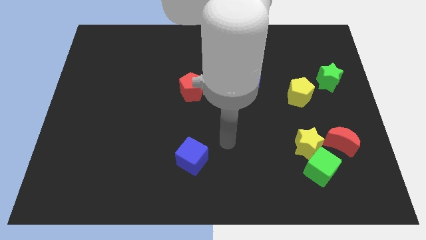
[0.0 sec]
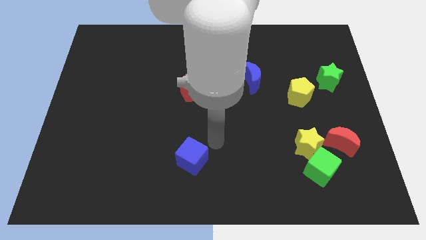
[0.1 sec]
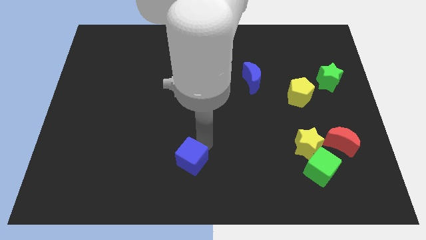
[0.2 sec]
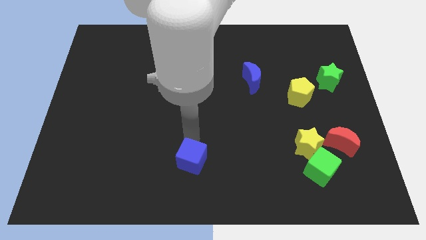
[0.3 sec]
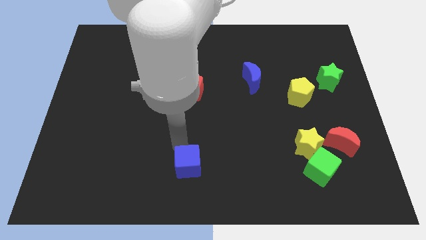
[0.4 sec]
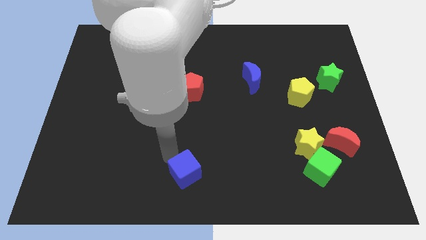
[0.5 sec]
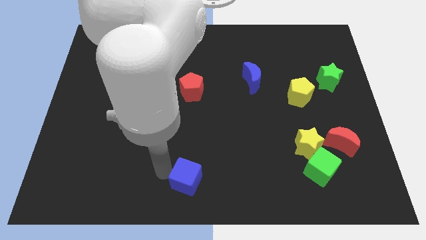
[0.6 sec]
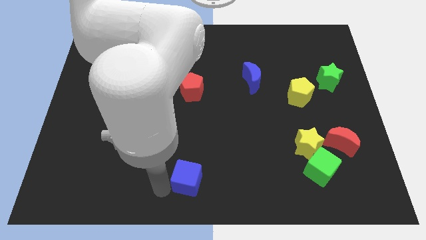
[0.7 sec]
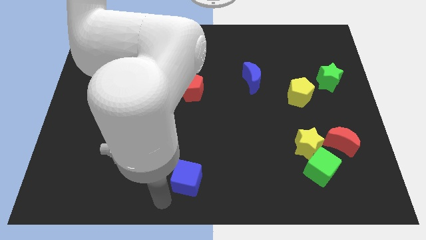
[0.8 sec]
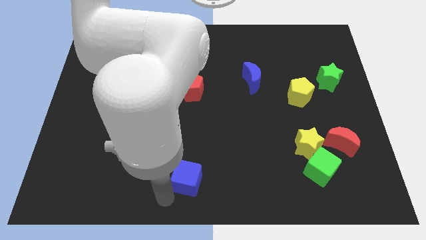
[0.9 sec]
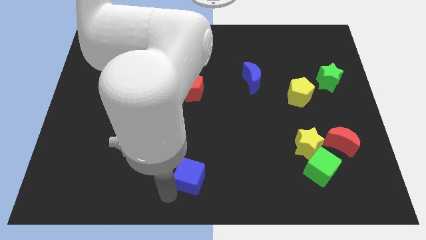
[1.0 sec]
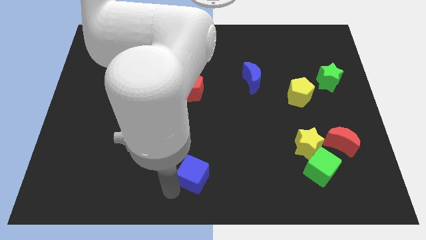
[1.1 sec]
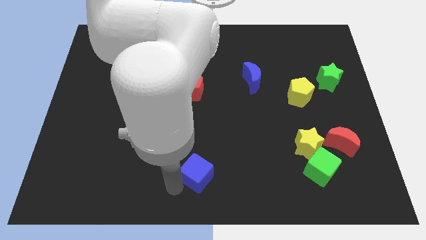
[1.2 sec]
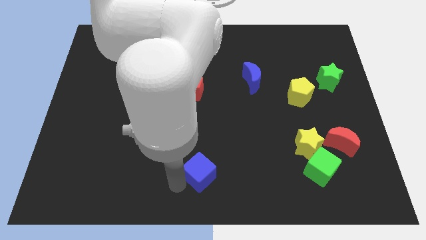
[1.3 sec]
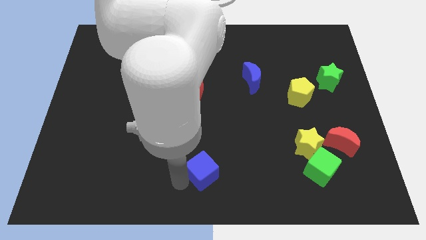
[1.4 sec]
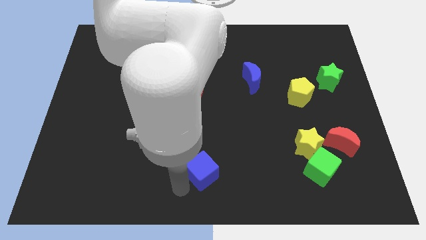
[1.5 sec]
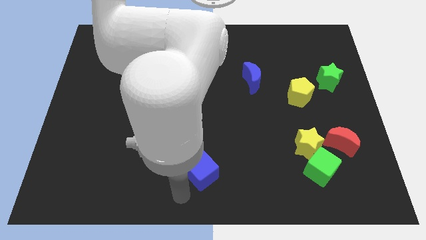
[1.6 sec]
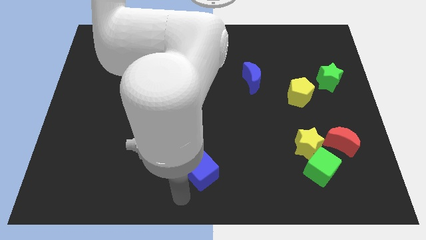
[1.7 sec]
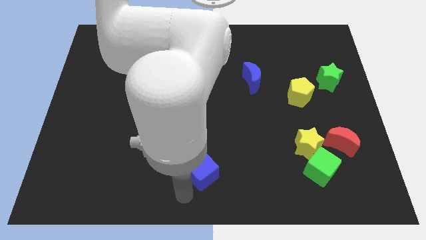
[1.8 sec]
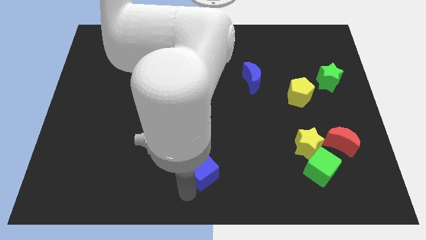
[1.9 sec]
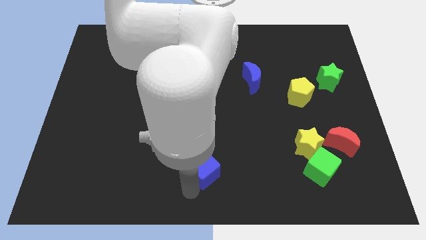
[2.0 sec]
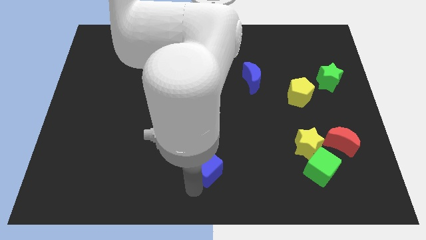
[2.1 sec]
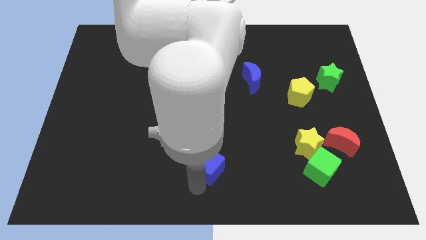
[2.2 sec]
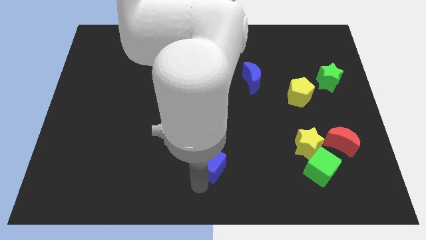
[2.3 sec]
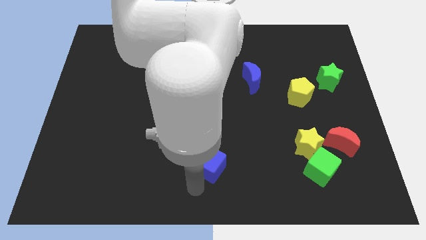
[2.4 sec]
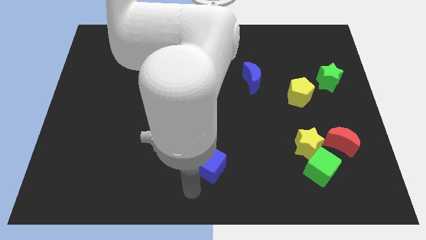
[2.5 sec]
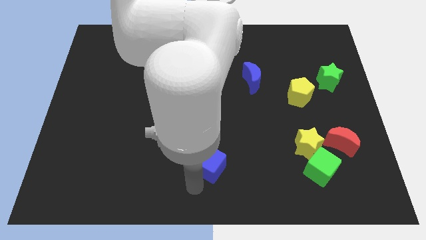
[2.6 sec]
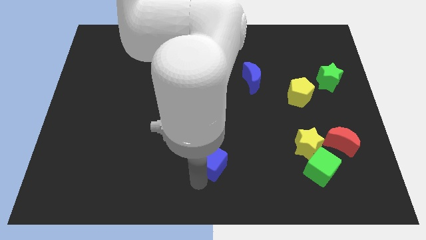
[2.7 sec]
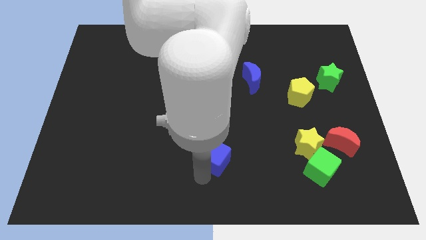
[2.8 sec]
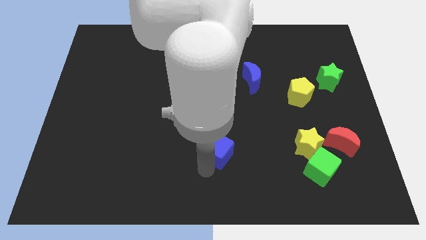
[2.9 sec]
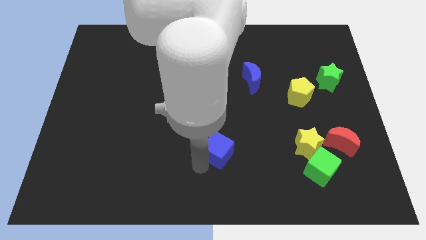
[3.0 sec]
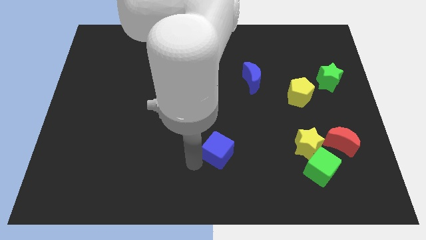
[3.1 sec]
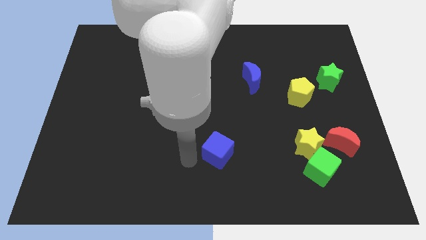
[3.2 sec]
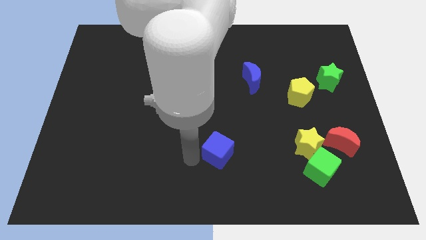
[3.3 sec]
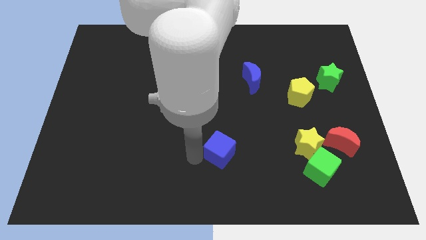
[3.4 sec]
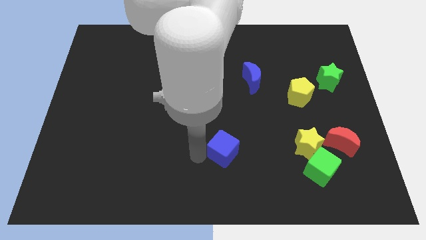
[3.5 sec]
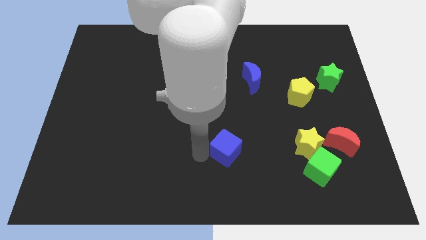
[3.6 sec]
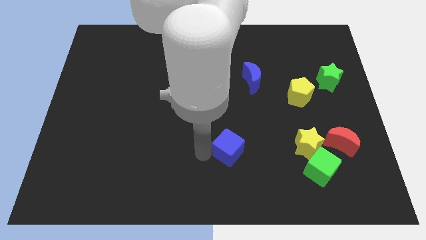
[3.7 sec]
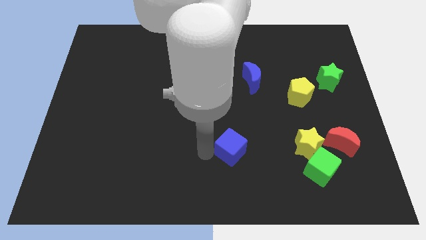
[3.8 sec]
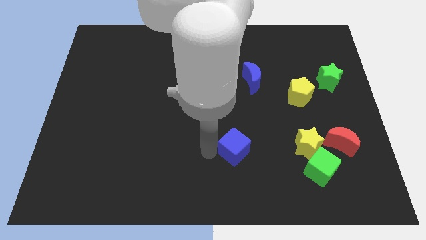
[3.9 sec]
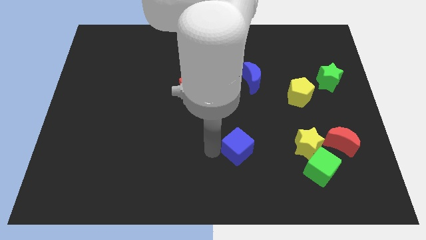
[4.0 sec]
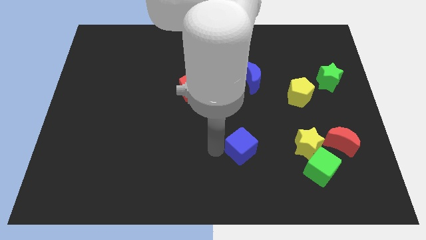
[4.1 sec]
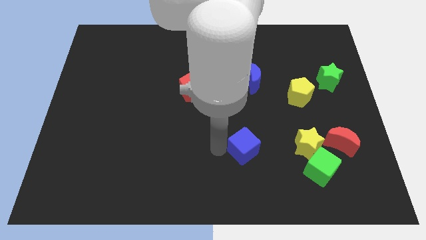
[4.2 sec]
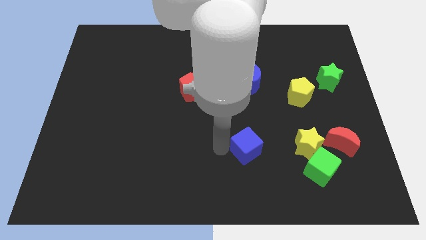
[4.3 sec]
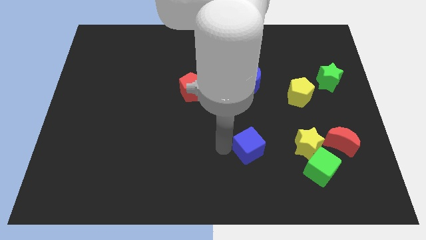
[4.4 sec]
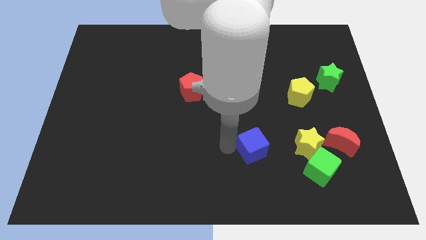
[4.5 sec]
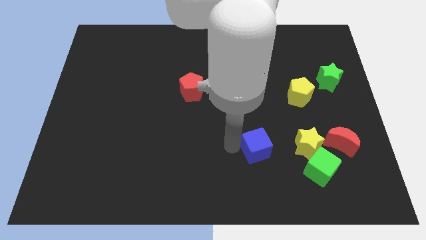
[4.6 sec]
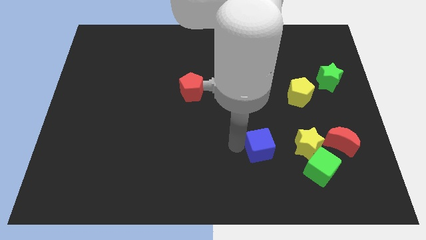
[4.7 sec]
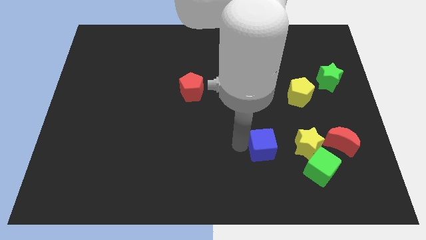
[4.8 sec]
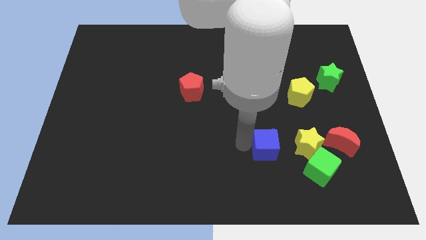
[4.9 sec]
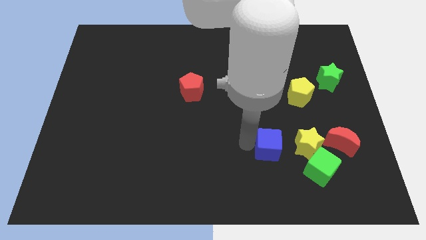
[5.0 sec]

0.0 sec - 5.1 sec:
push the blue cube to the top left of the green cube

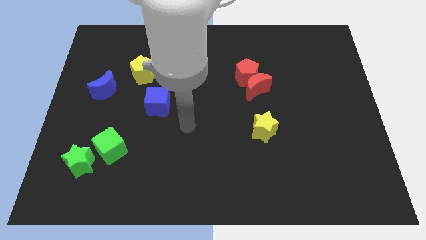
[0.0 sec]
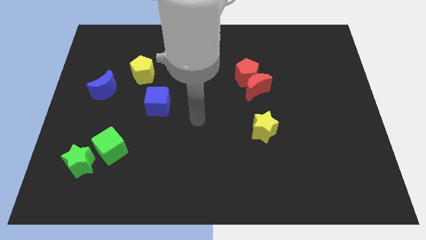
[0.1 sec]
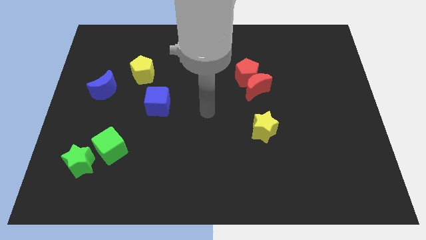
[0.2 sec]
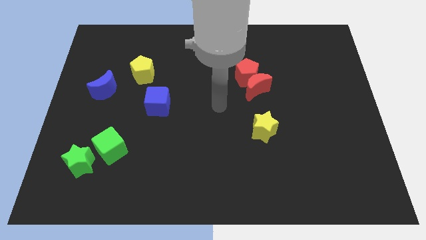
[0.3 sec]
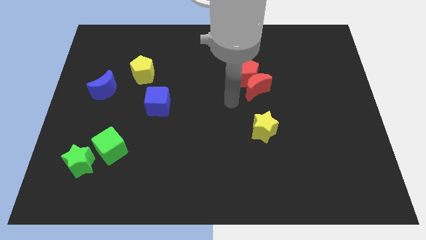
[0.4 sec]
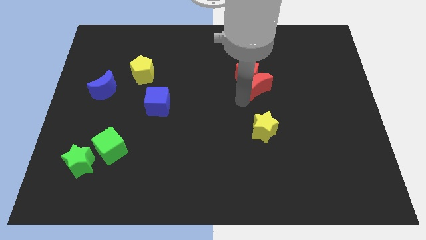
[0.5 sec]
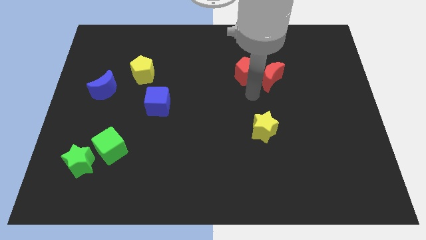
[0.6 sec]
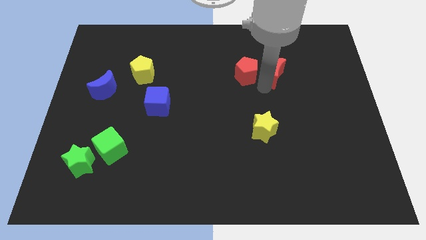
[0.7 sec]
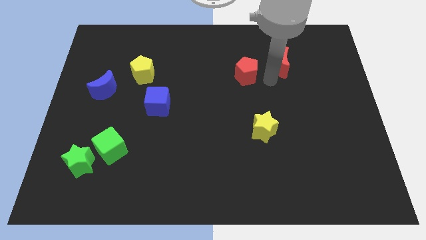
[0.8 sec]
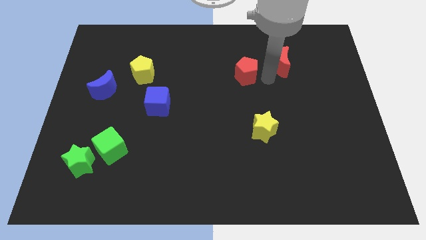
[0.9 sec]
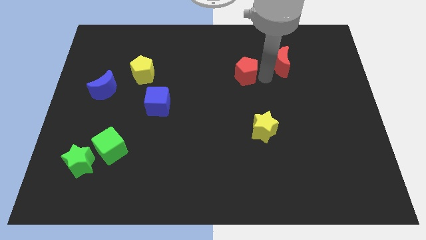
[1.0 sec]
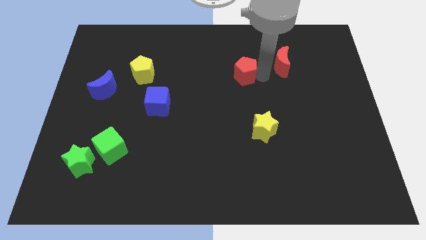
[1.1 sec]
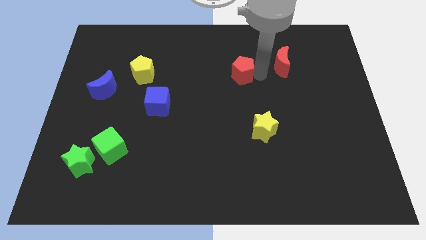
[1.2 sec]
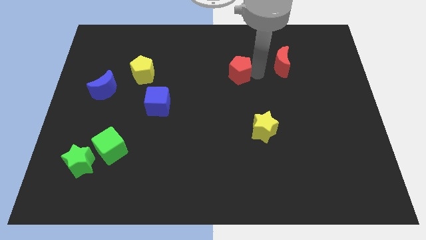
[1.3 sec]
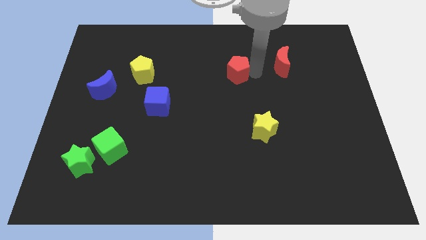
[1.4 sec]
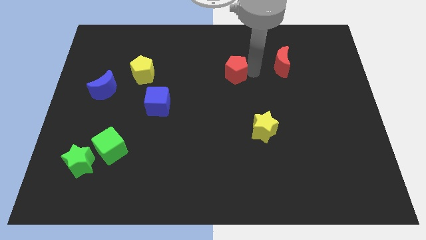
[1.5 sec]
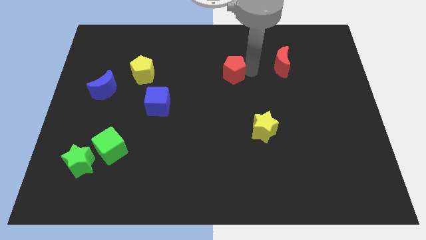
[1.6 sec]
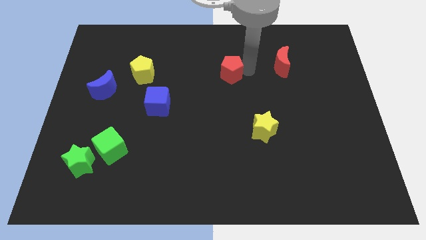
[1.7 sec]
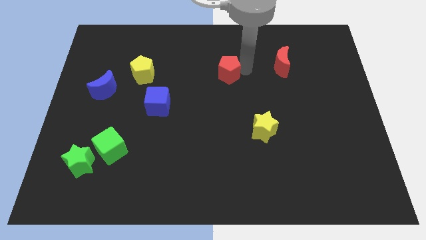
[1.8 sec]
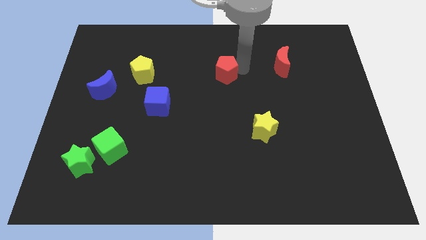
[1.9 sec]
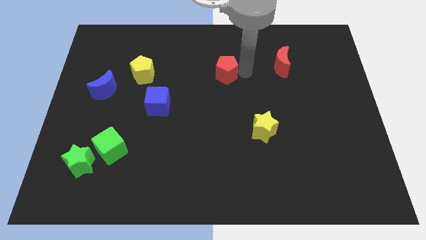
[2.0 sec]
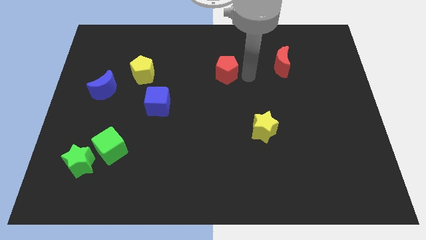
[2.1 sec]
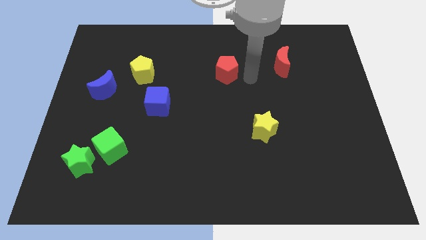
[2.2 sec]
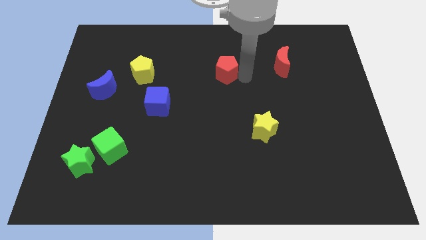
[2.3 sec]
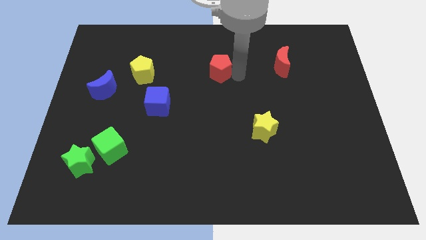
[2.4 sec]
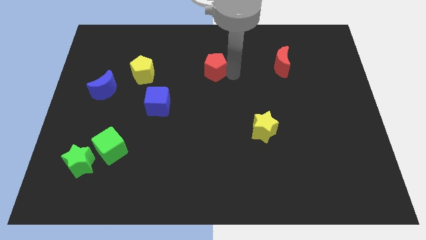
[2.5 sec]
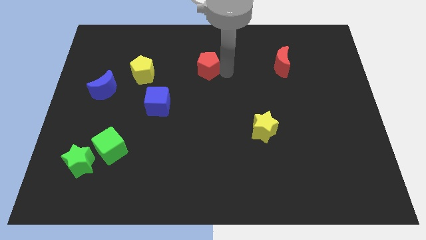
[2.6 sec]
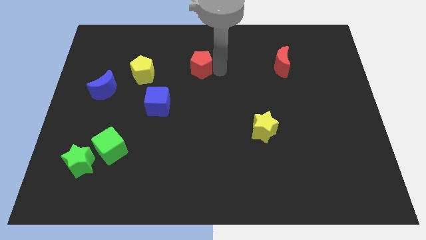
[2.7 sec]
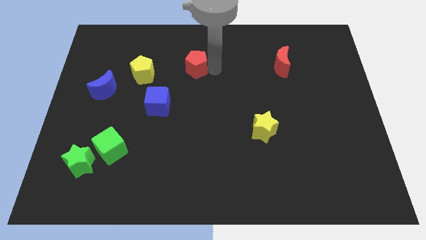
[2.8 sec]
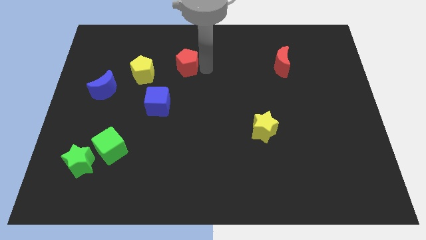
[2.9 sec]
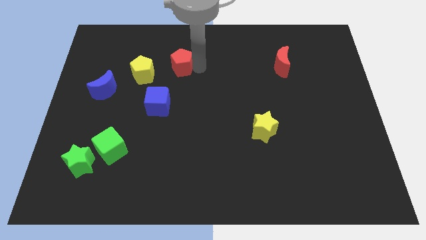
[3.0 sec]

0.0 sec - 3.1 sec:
push the red pentagon to the top right of the yellow pentagon
